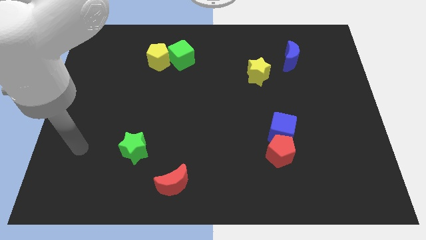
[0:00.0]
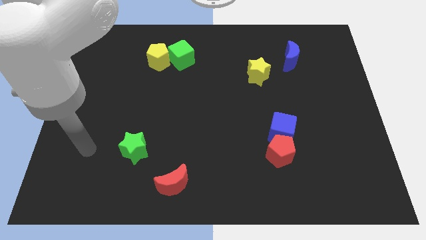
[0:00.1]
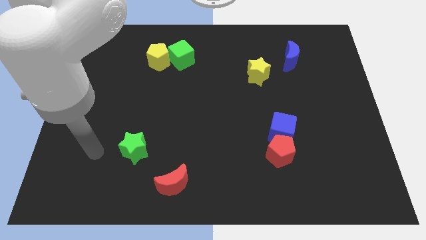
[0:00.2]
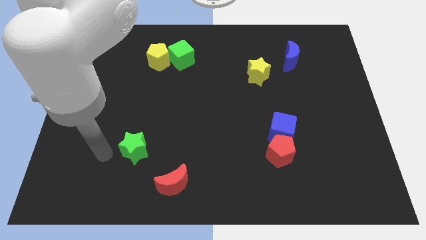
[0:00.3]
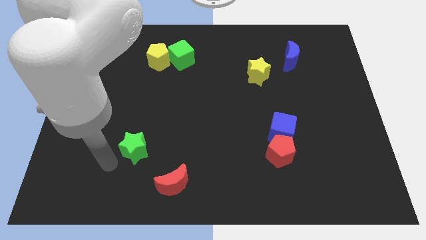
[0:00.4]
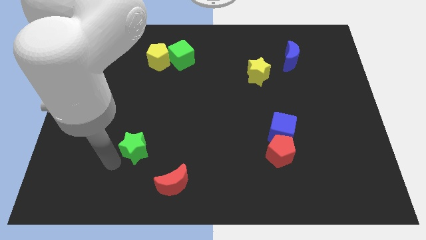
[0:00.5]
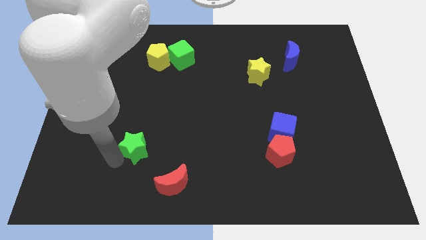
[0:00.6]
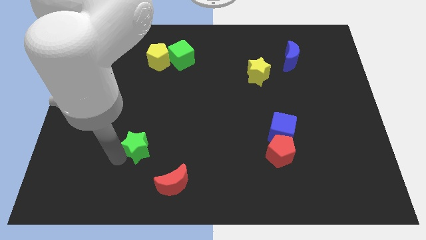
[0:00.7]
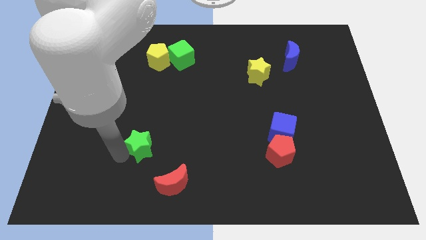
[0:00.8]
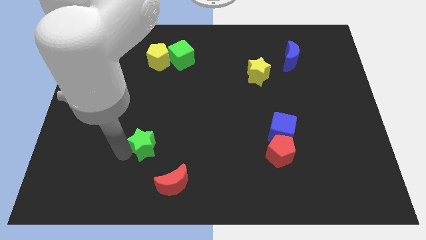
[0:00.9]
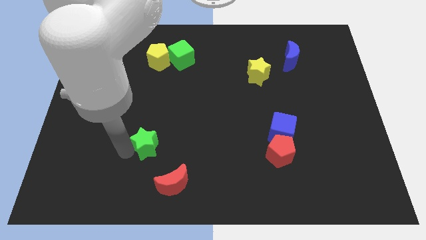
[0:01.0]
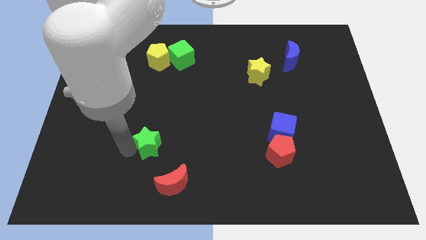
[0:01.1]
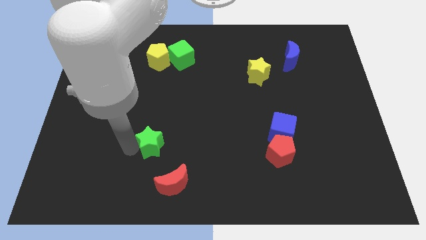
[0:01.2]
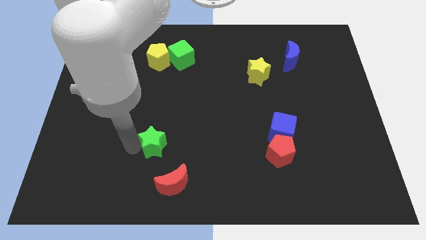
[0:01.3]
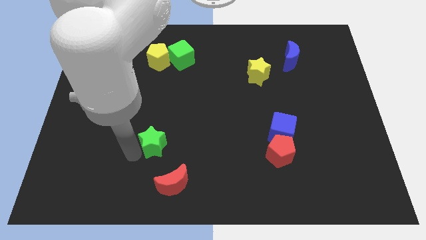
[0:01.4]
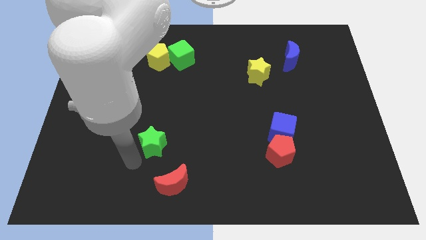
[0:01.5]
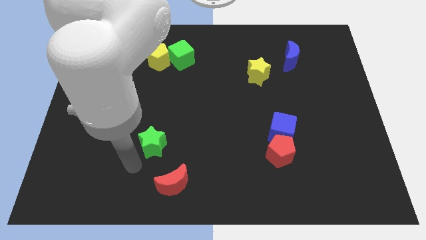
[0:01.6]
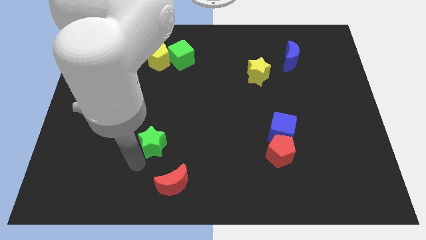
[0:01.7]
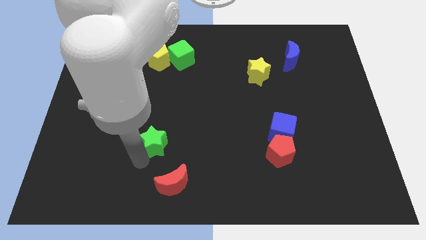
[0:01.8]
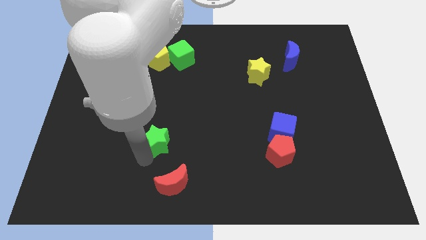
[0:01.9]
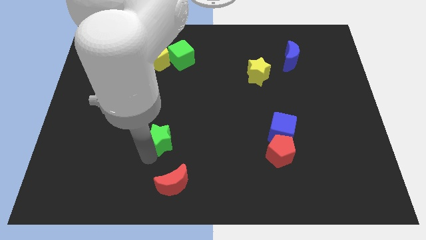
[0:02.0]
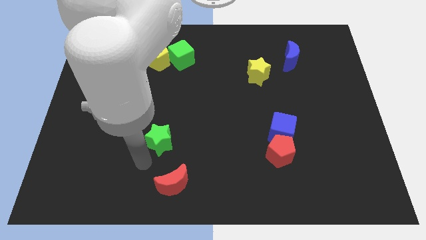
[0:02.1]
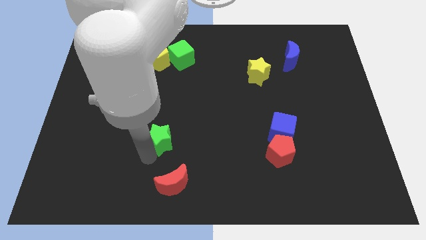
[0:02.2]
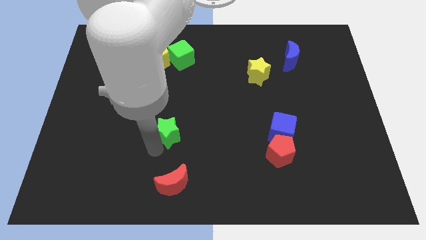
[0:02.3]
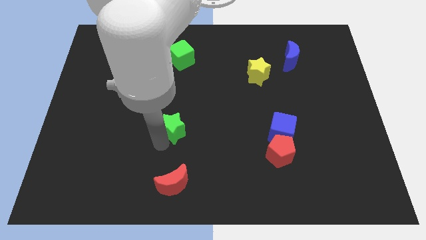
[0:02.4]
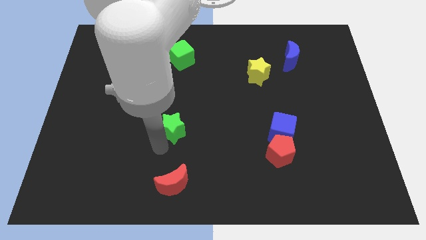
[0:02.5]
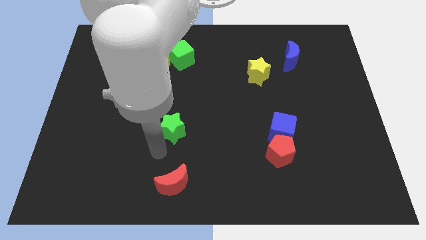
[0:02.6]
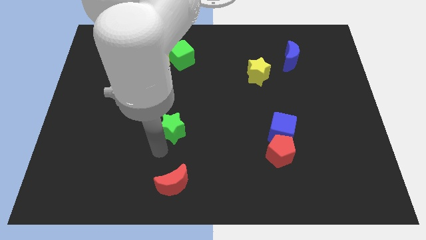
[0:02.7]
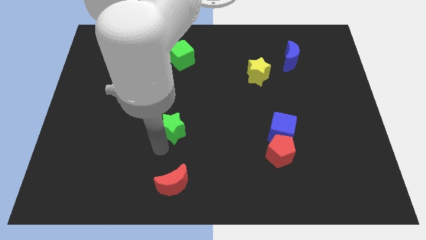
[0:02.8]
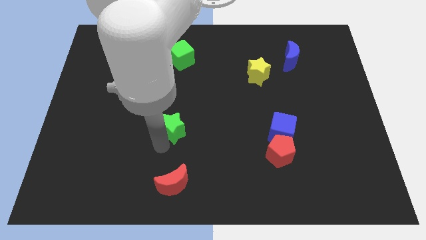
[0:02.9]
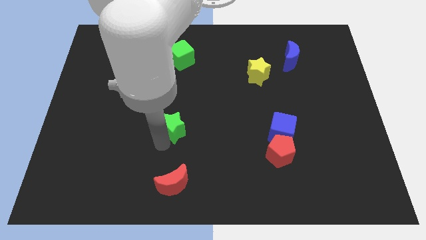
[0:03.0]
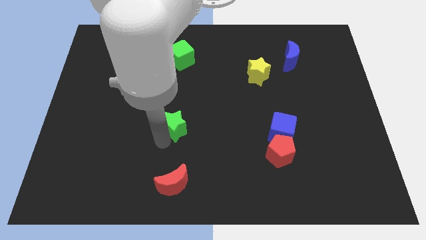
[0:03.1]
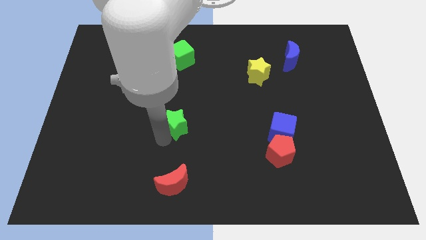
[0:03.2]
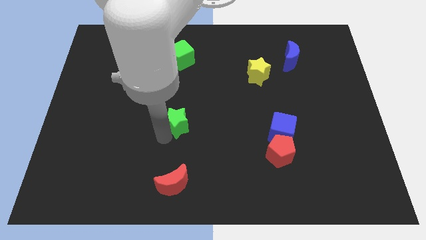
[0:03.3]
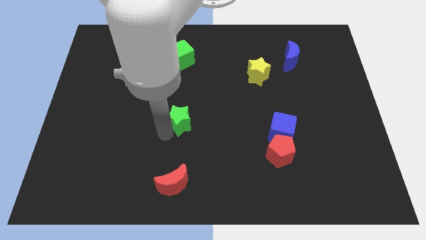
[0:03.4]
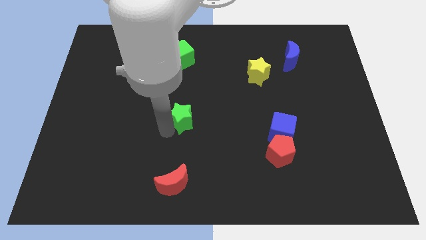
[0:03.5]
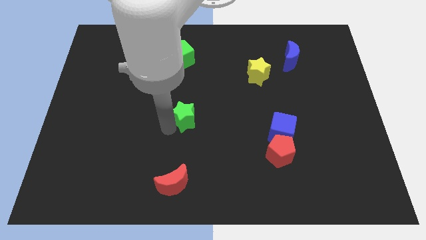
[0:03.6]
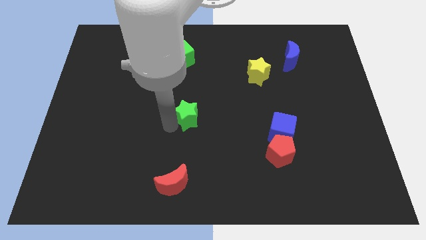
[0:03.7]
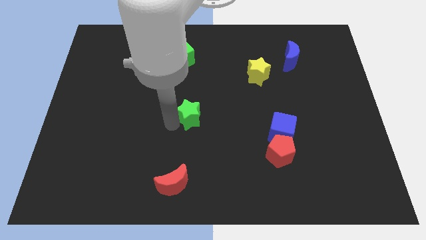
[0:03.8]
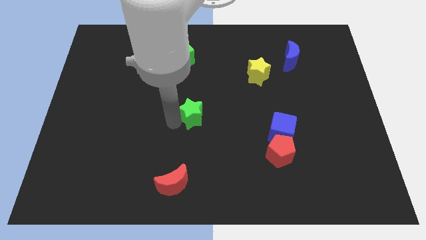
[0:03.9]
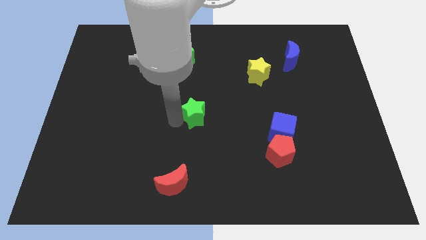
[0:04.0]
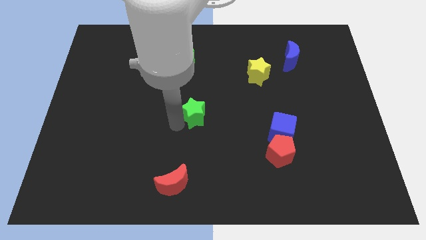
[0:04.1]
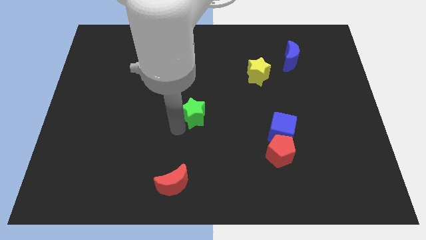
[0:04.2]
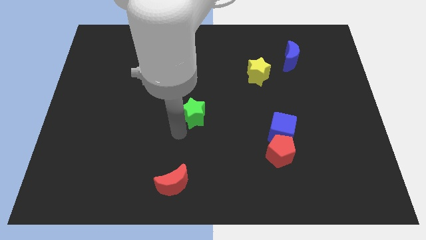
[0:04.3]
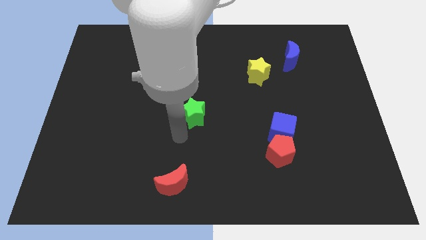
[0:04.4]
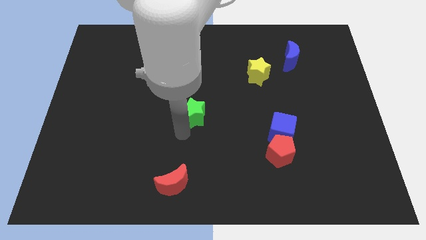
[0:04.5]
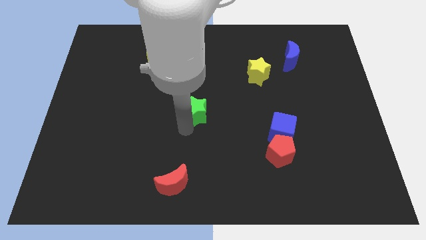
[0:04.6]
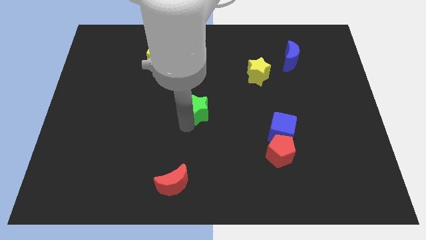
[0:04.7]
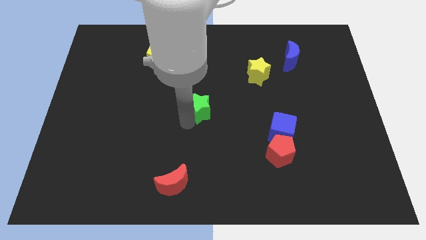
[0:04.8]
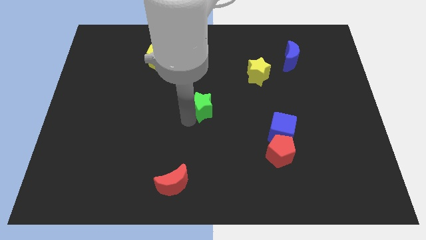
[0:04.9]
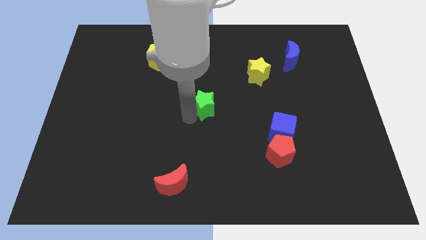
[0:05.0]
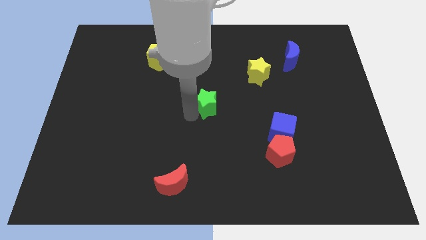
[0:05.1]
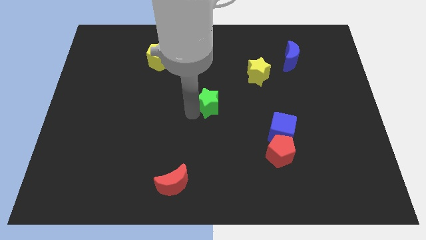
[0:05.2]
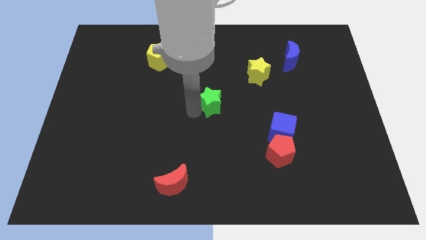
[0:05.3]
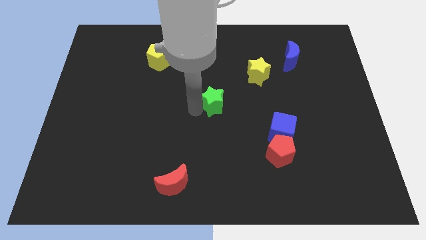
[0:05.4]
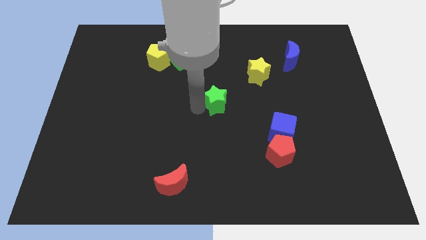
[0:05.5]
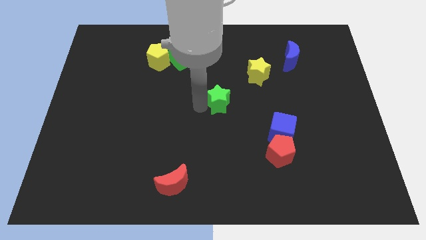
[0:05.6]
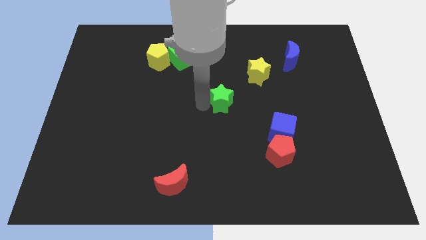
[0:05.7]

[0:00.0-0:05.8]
slide the green star diagonally down and to the left of the yellow star

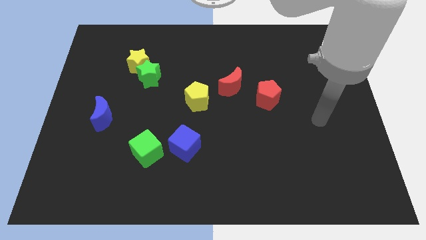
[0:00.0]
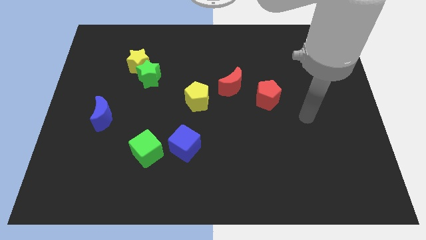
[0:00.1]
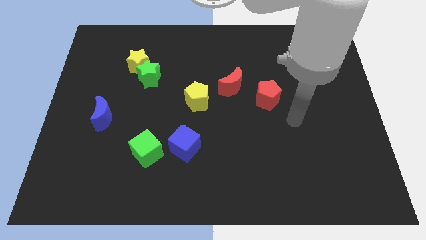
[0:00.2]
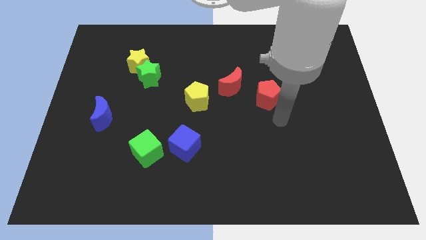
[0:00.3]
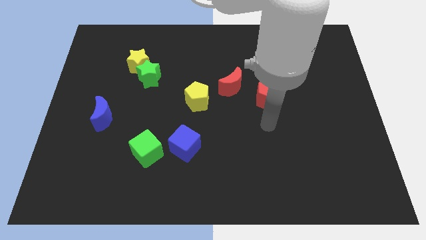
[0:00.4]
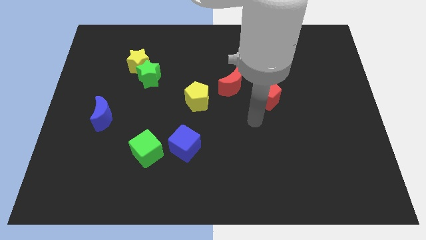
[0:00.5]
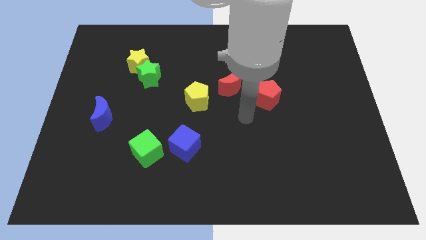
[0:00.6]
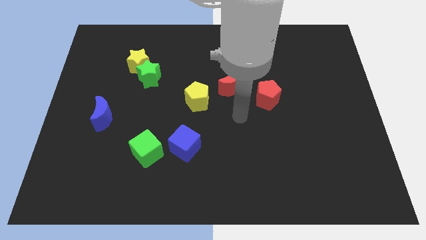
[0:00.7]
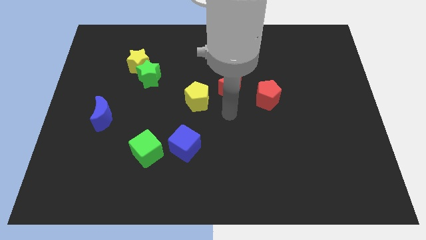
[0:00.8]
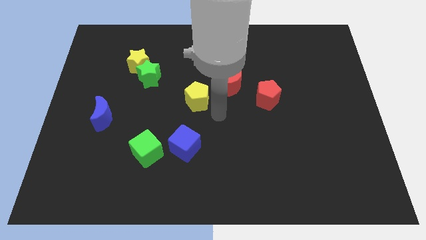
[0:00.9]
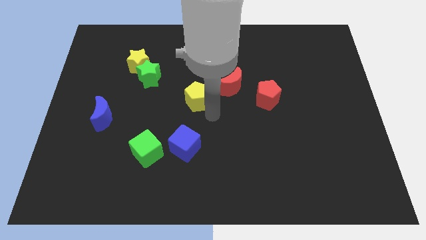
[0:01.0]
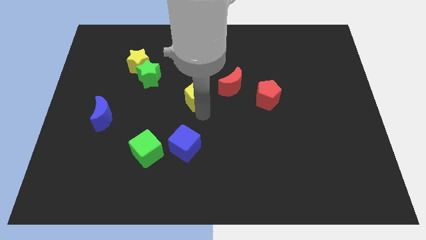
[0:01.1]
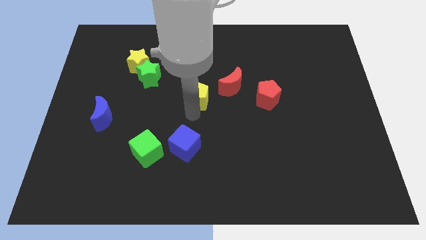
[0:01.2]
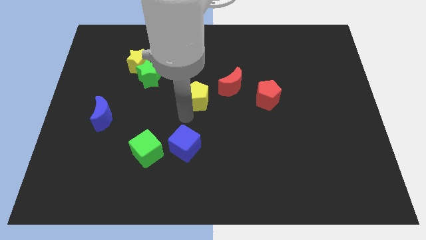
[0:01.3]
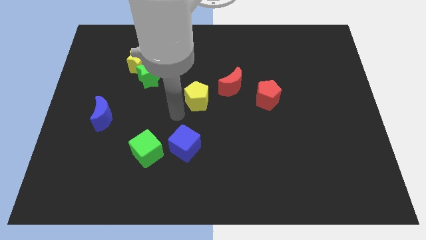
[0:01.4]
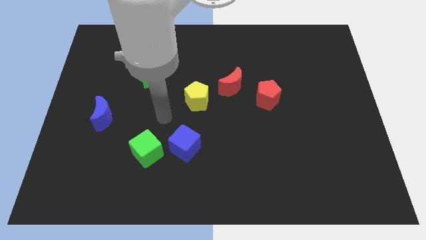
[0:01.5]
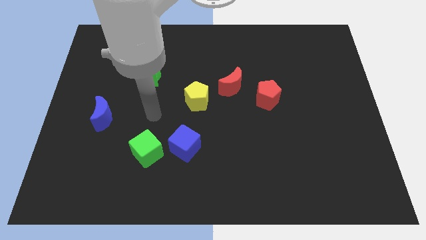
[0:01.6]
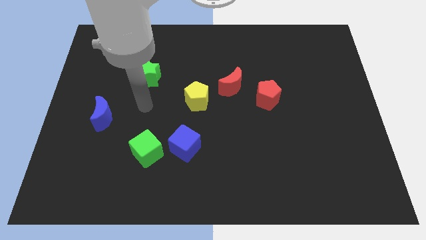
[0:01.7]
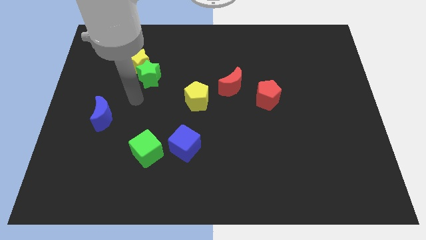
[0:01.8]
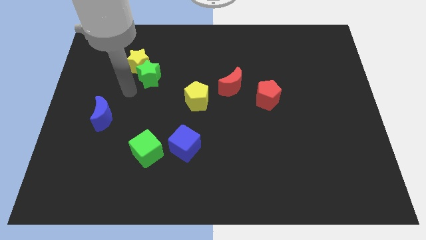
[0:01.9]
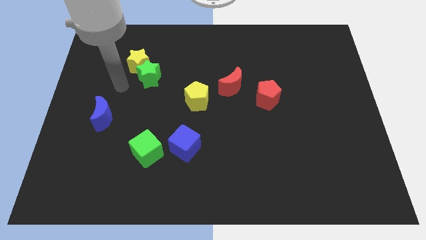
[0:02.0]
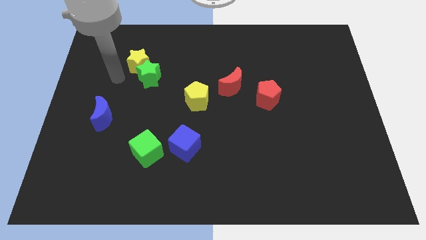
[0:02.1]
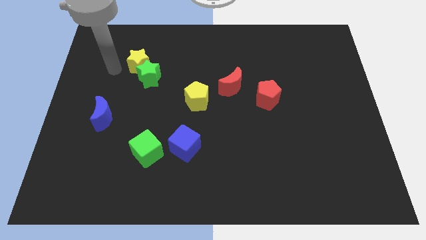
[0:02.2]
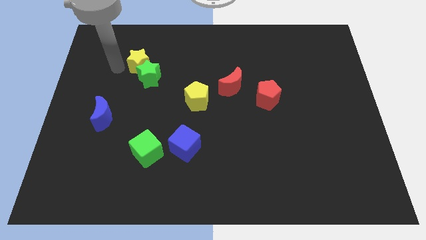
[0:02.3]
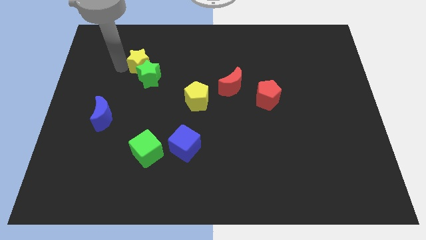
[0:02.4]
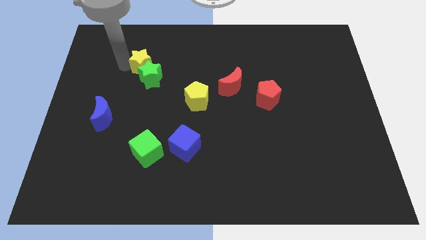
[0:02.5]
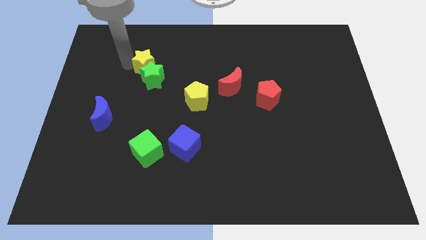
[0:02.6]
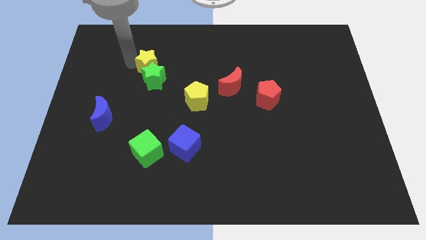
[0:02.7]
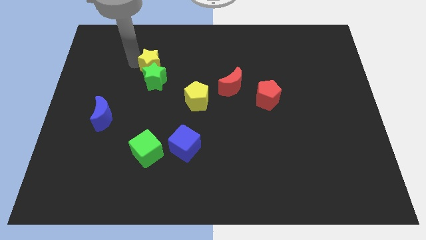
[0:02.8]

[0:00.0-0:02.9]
put the yellow star diagonally up and to the right of the green star
